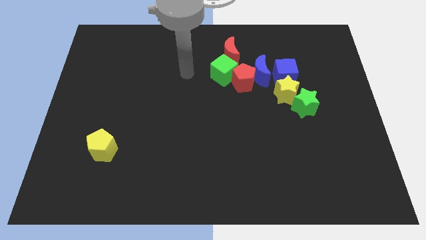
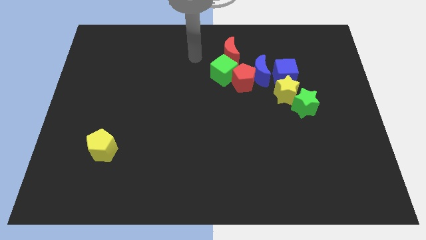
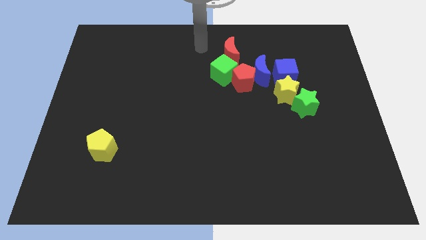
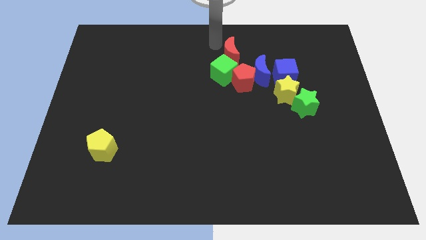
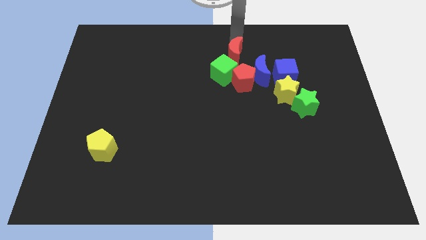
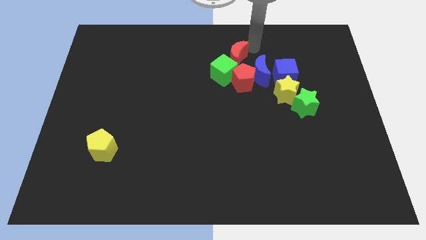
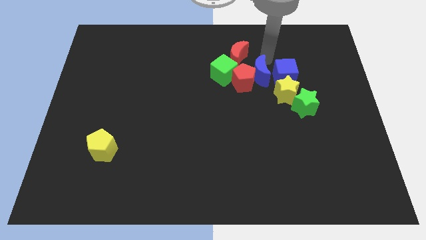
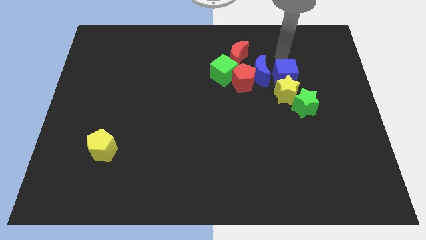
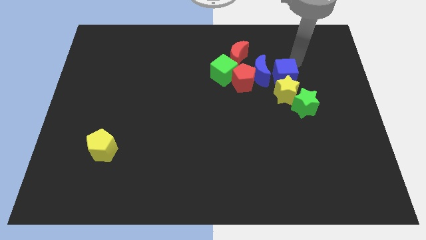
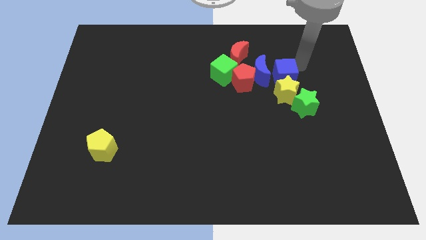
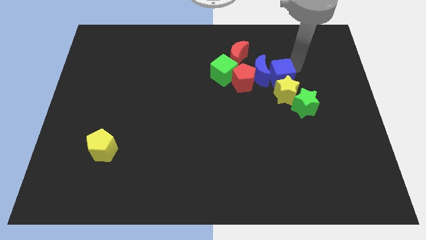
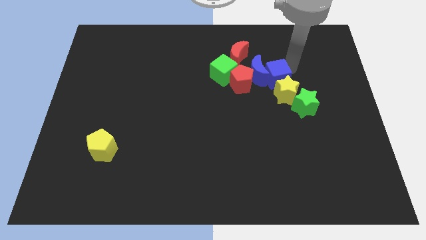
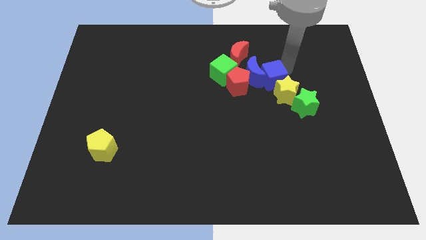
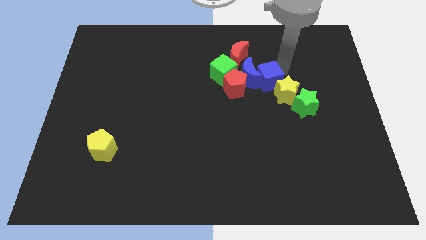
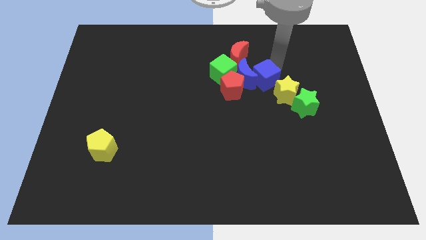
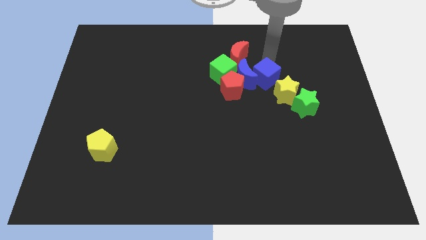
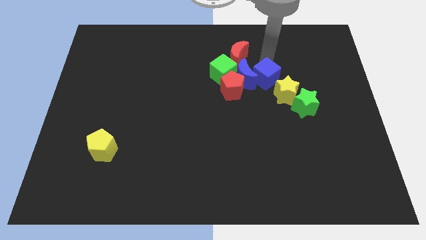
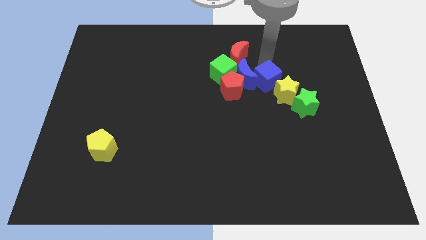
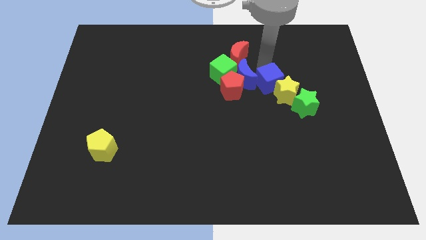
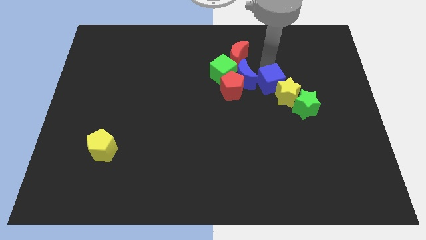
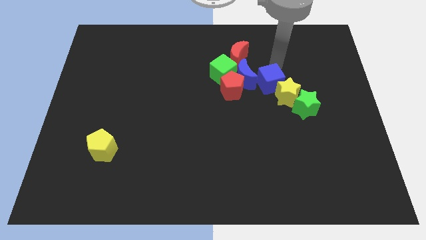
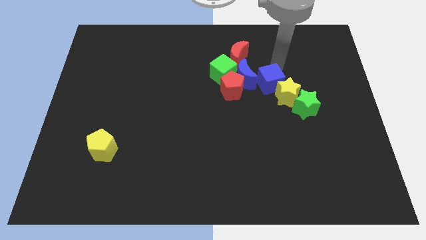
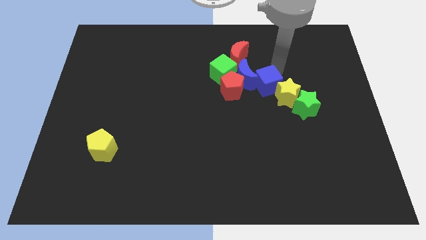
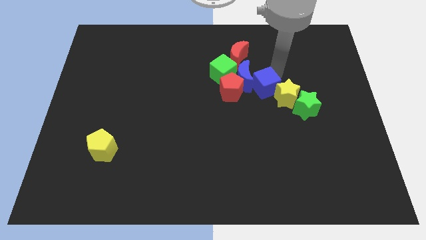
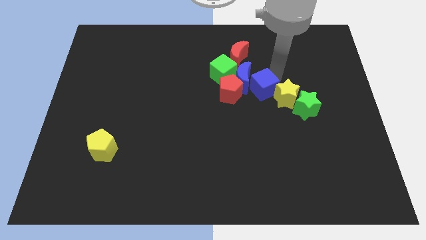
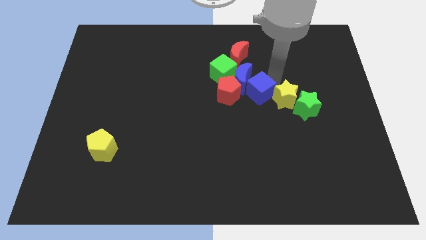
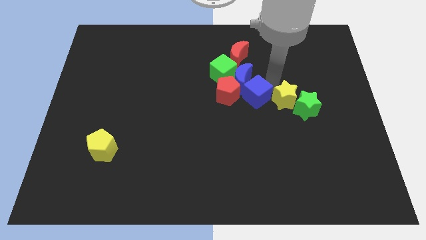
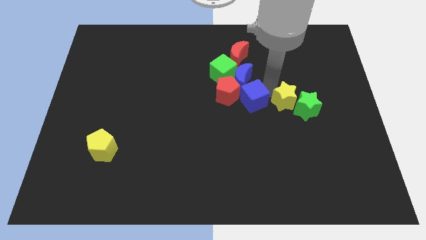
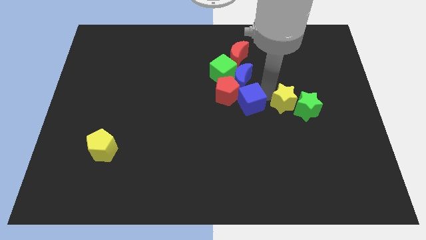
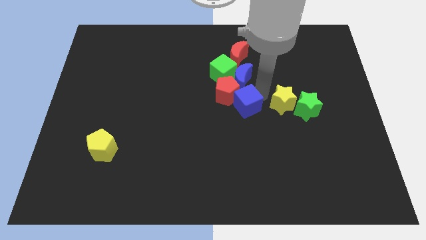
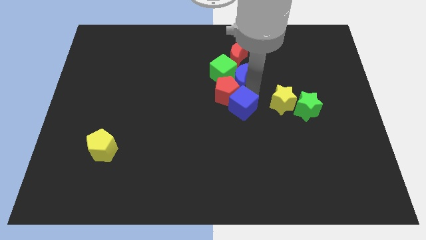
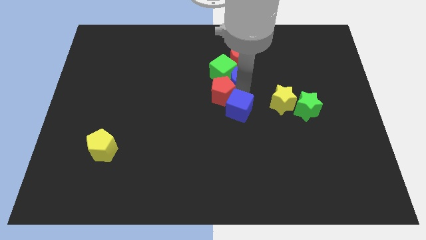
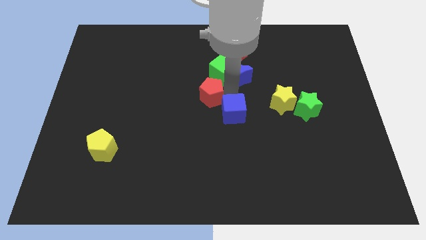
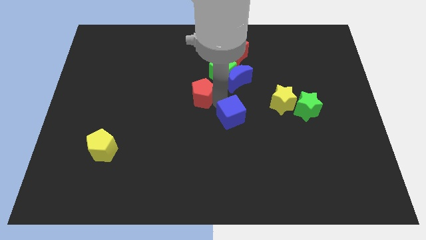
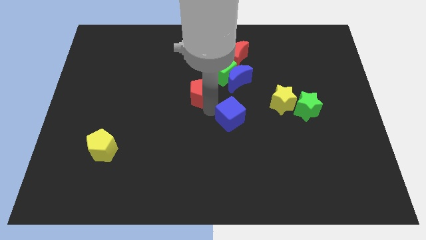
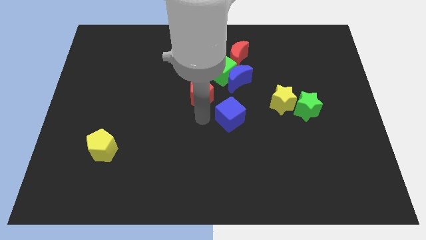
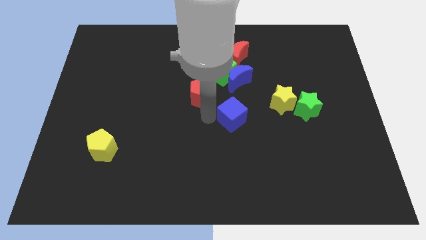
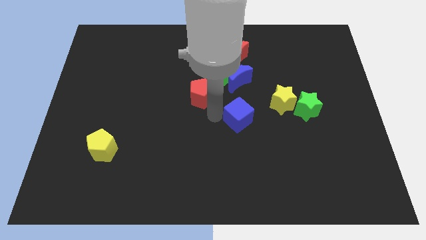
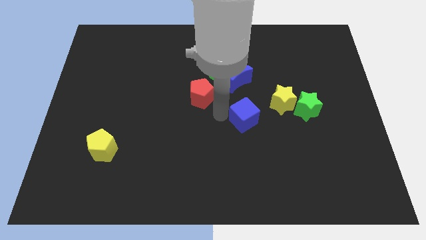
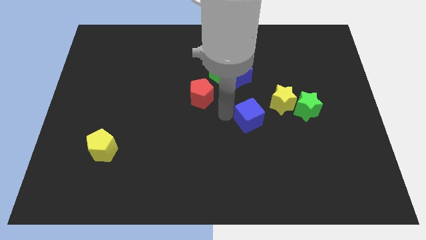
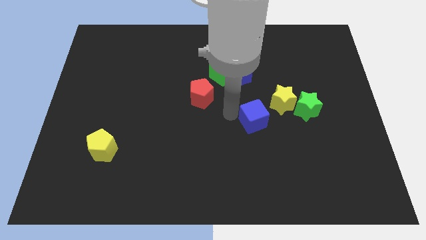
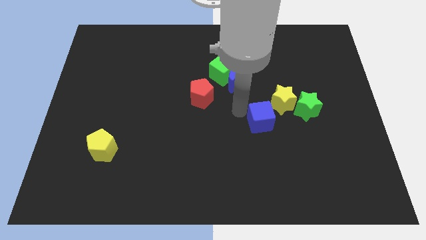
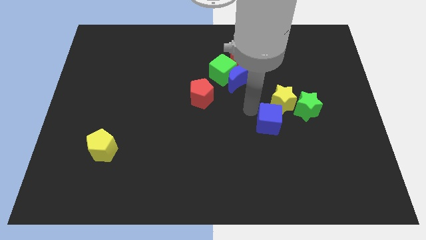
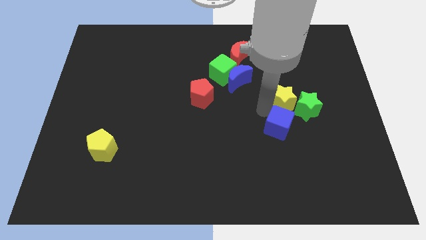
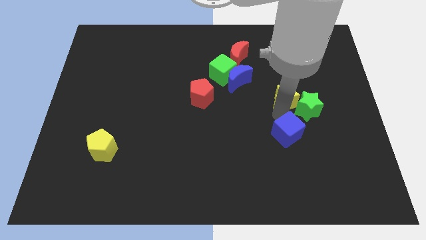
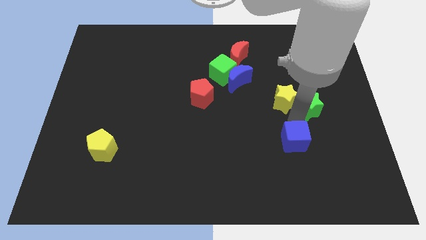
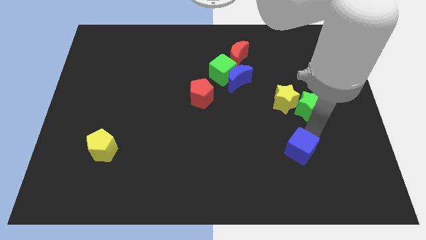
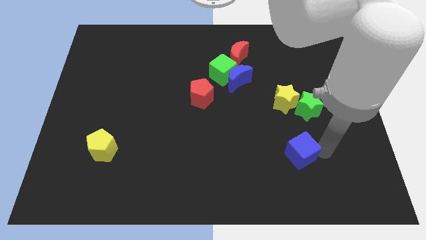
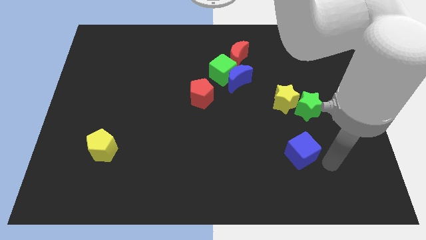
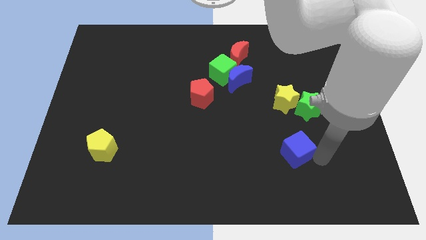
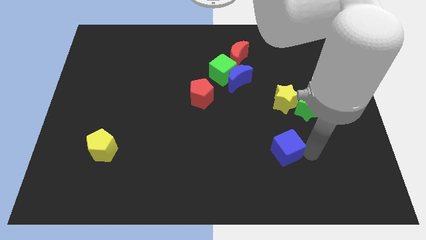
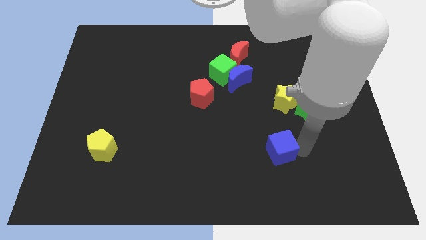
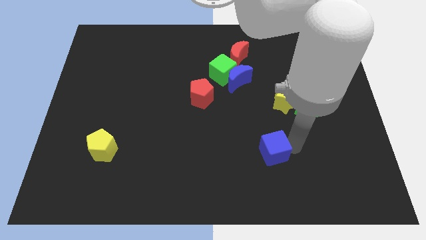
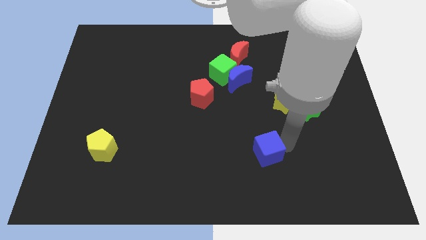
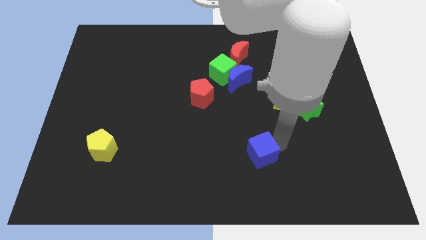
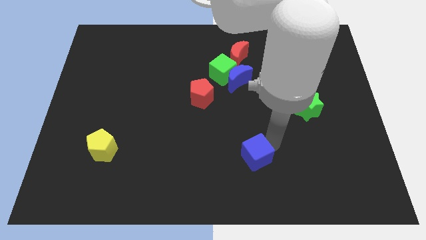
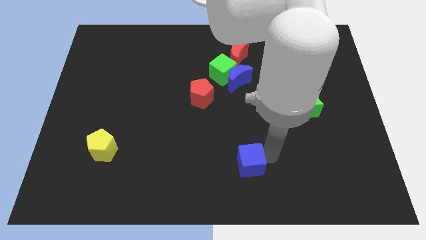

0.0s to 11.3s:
put the blue cube to the bottom side
